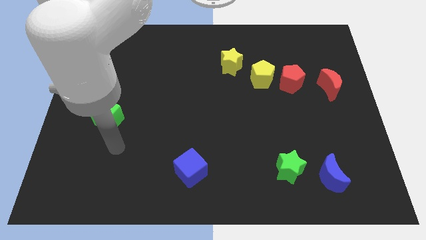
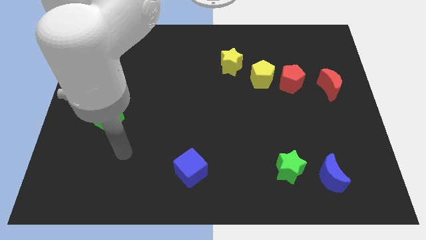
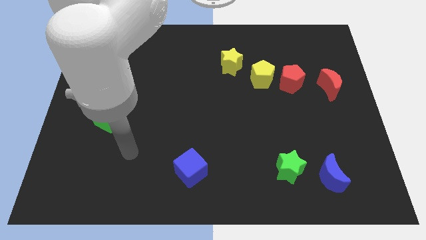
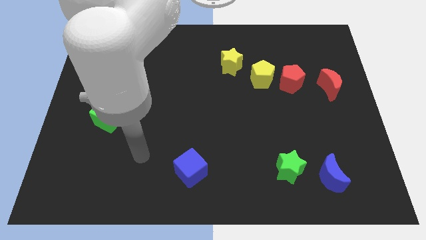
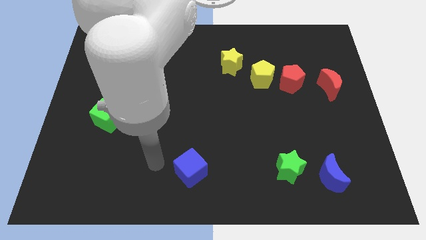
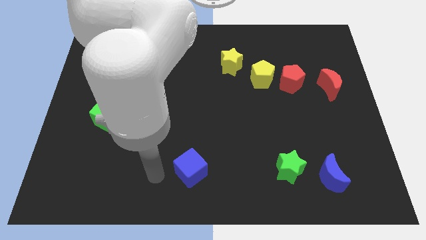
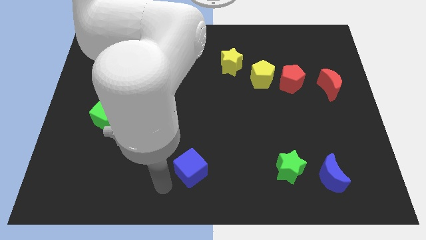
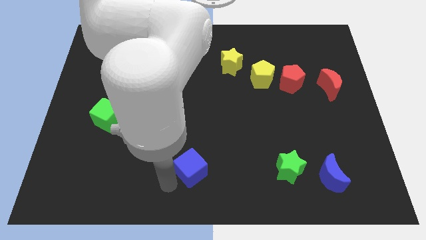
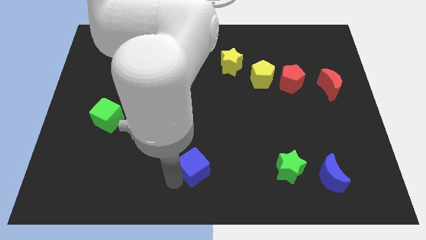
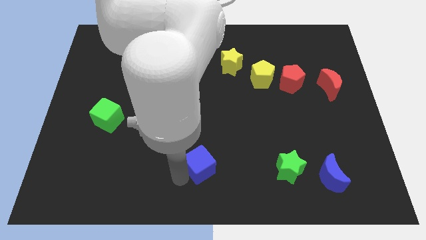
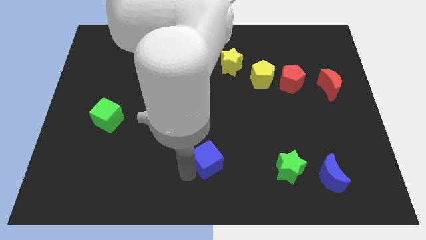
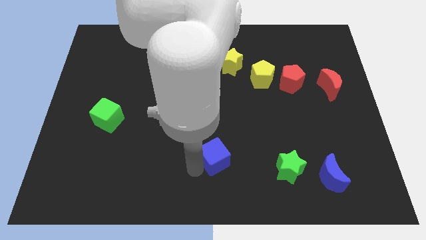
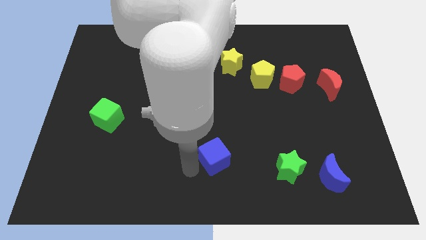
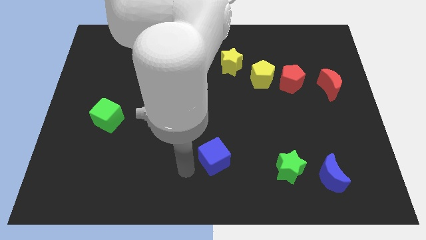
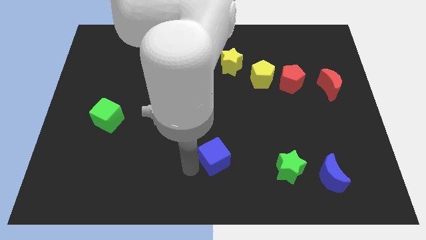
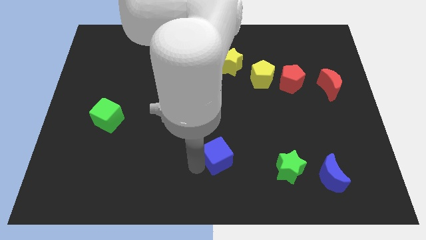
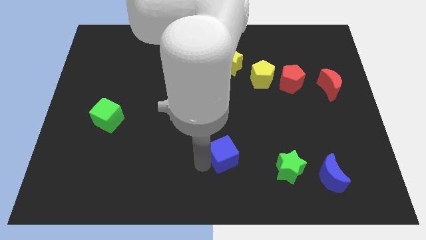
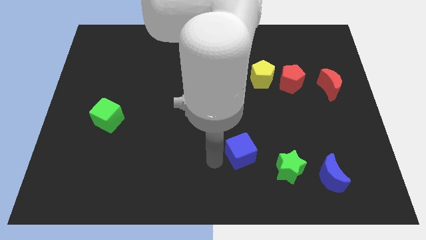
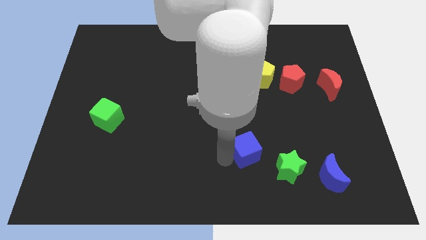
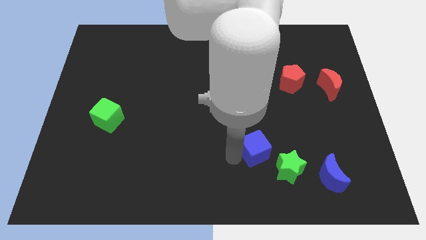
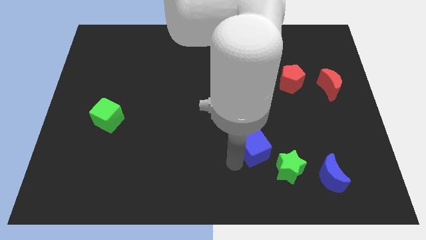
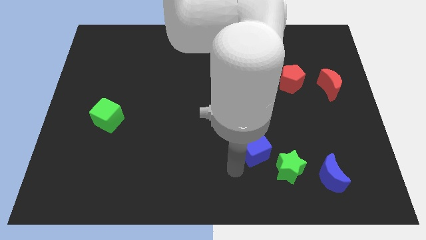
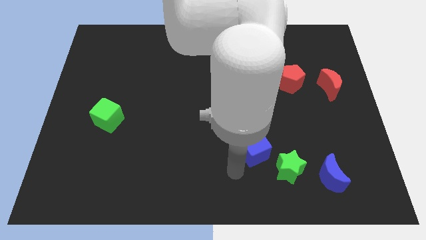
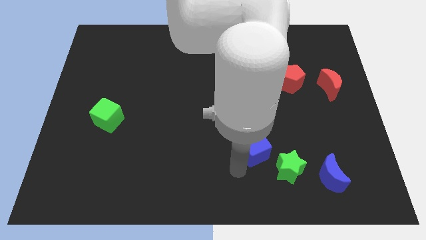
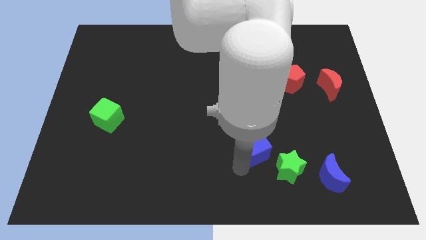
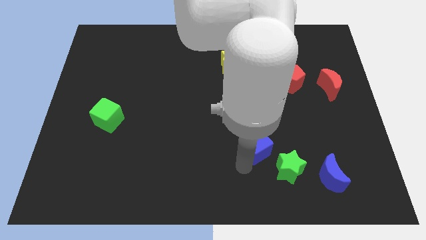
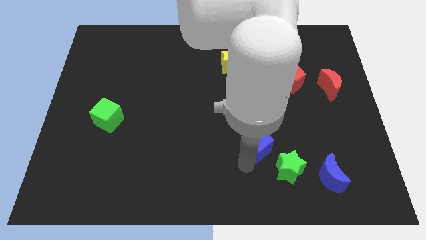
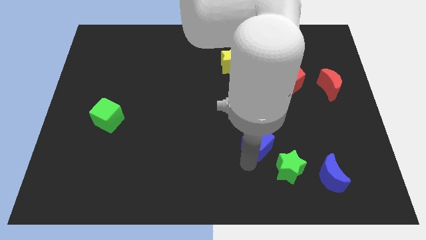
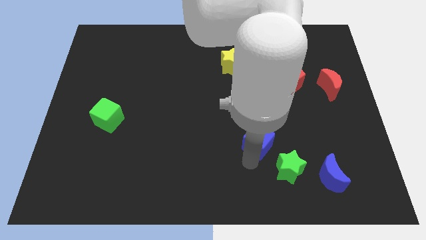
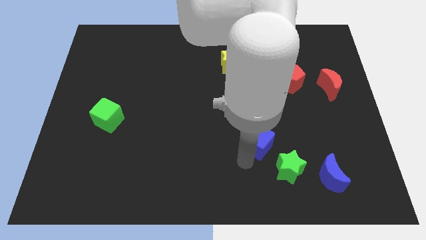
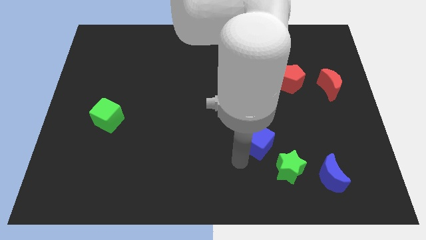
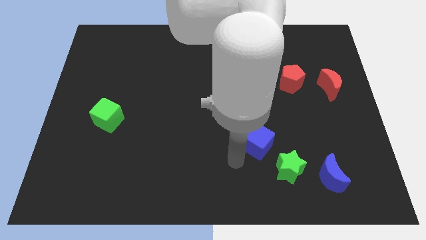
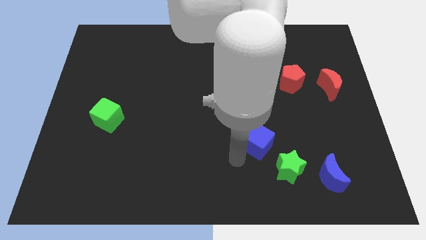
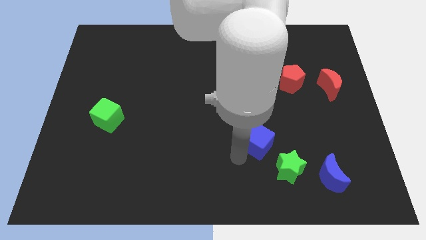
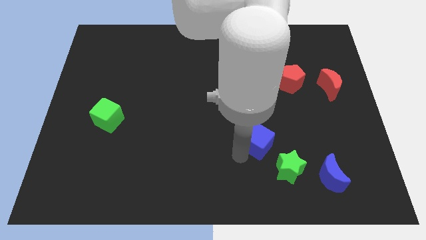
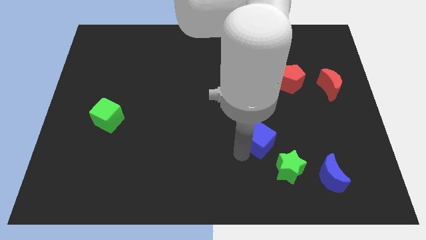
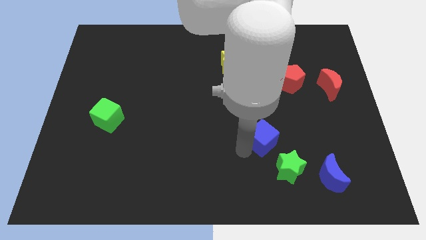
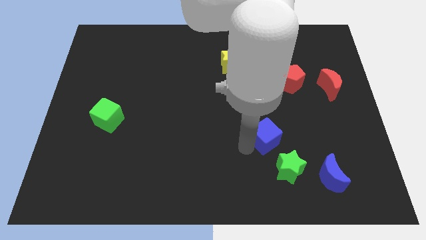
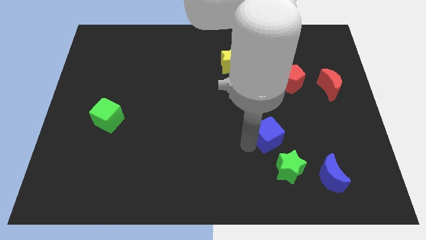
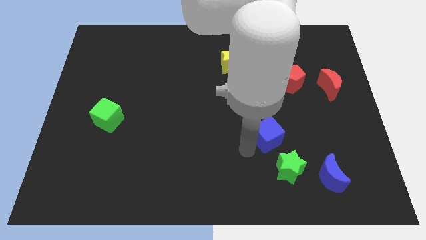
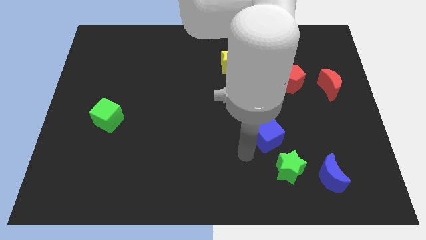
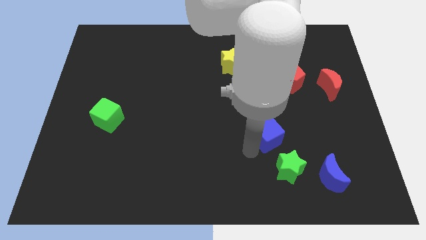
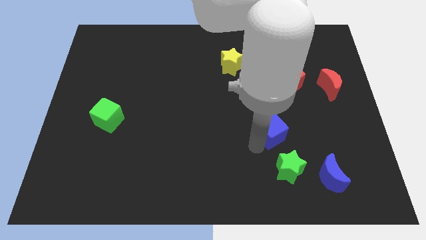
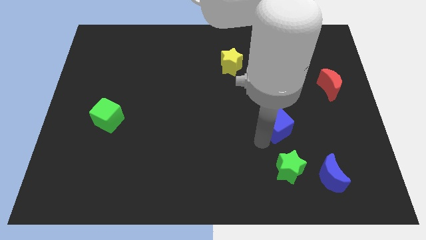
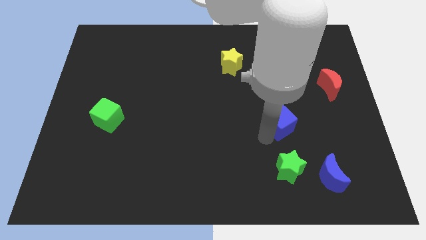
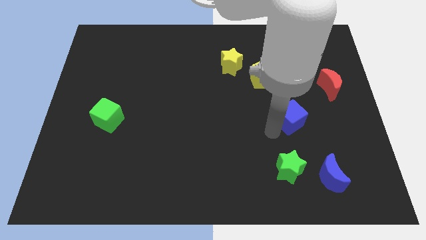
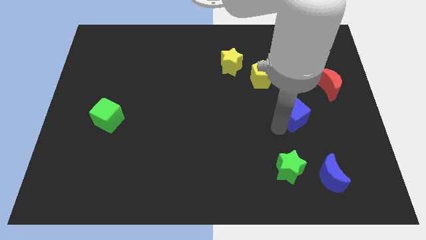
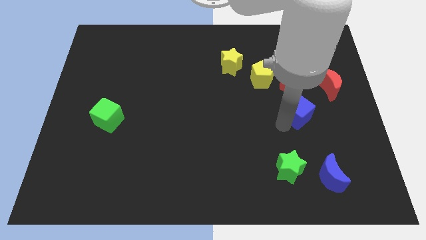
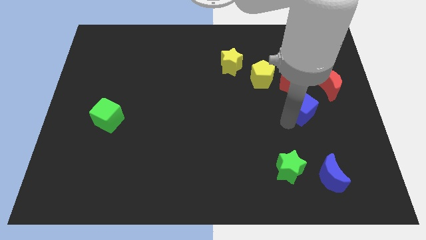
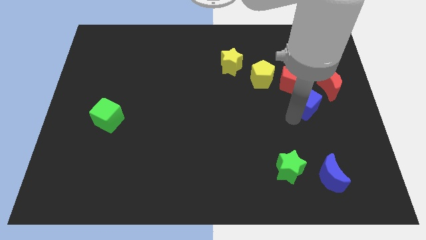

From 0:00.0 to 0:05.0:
push the blue cube to the bottom right side of the red pentagon

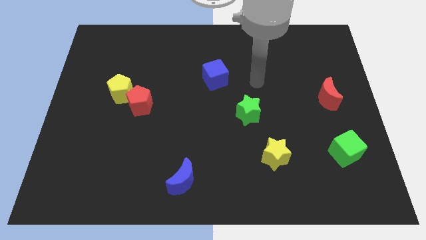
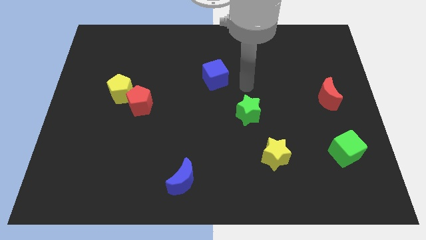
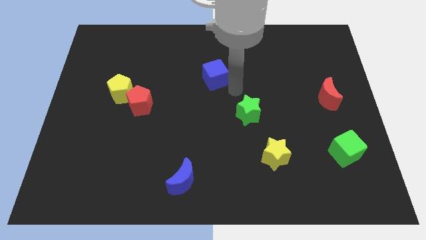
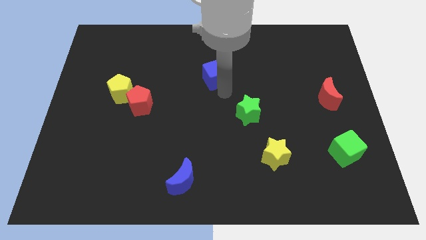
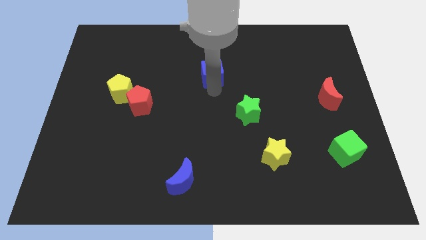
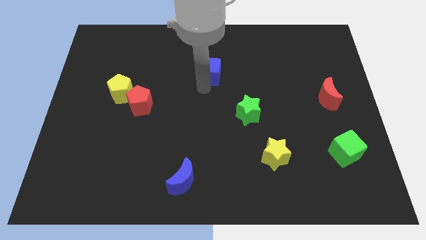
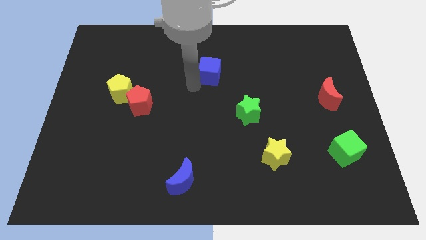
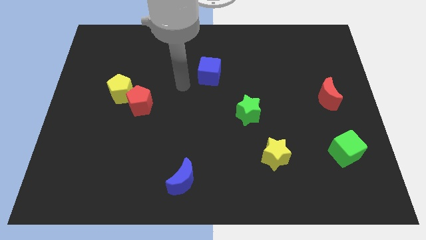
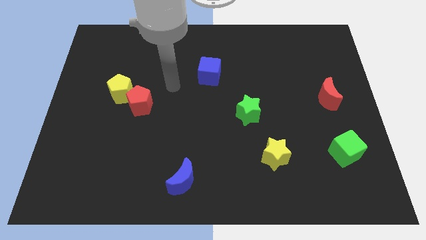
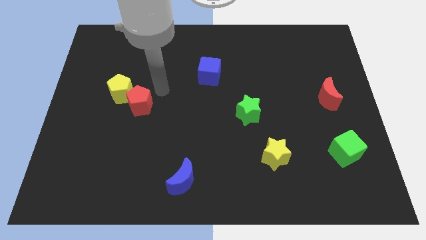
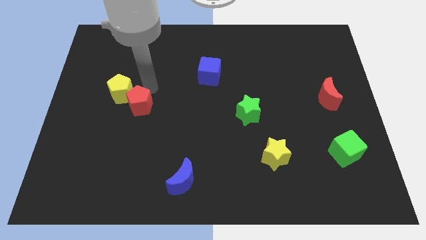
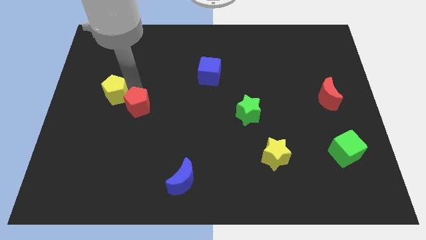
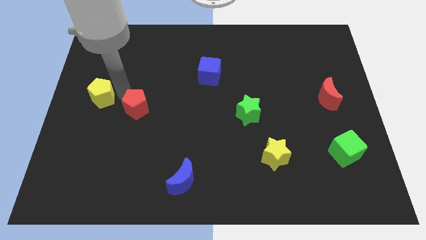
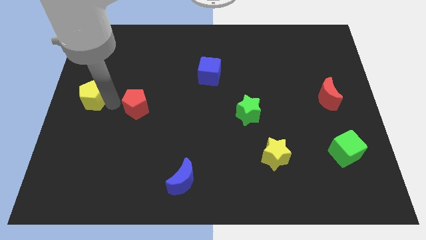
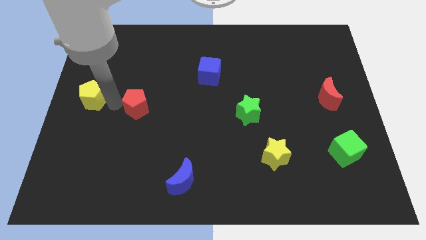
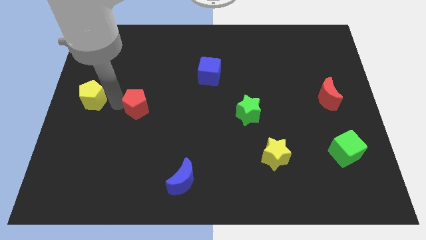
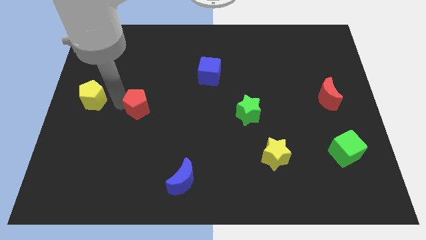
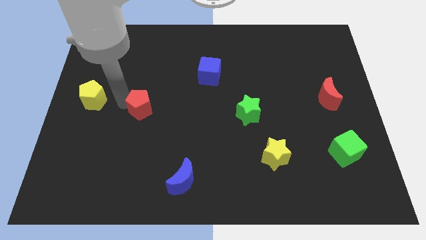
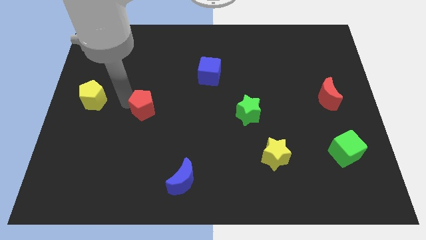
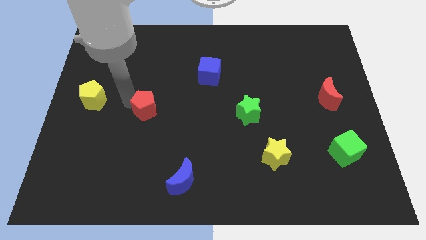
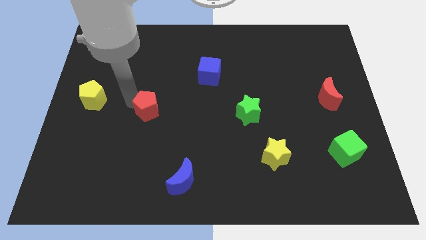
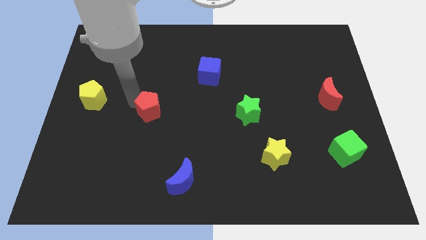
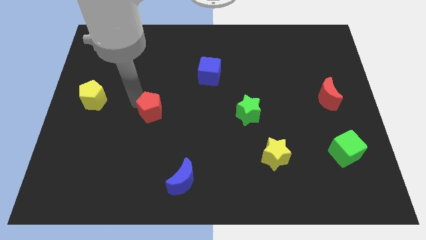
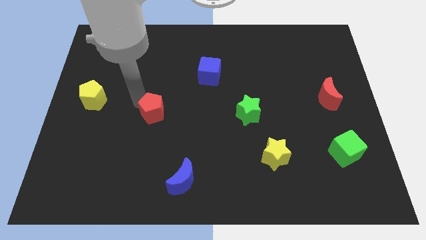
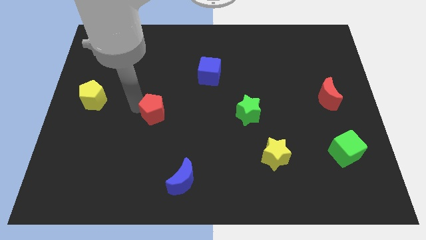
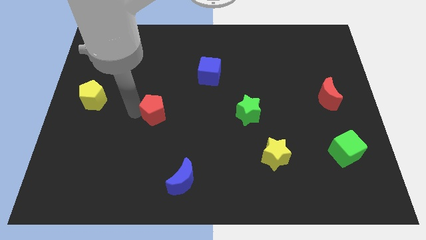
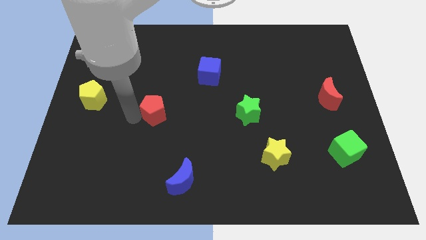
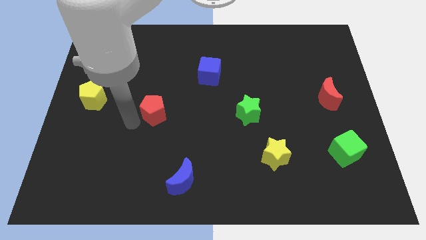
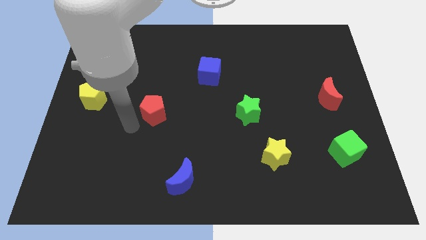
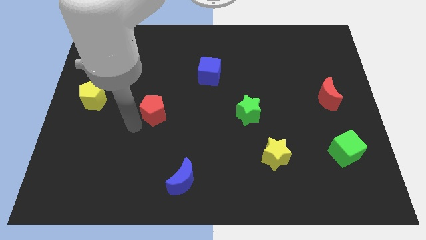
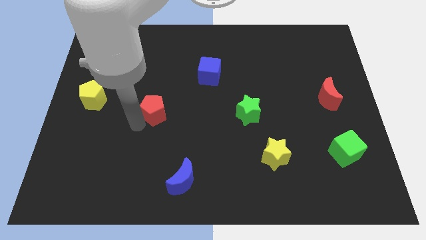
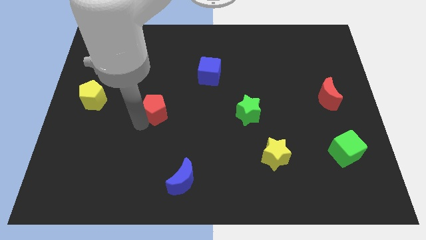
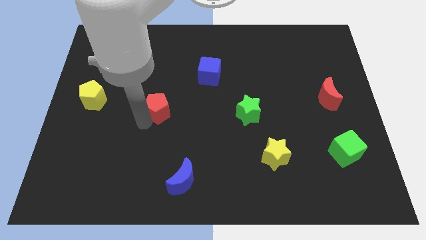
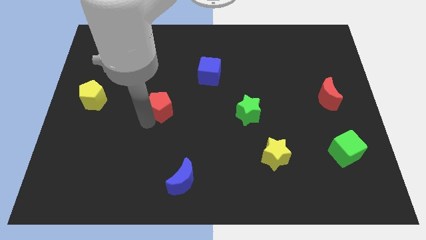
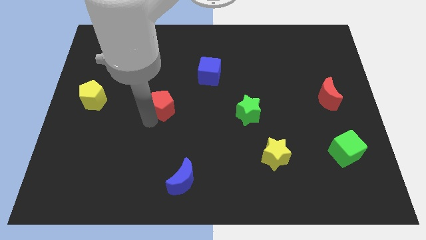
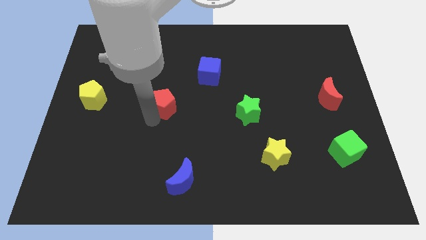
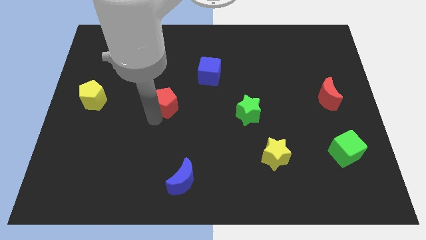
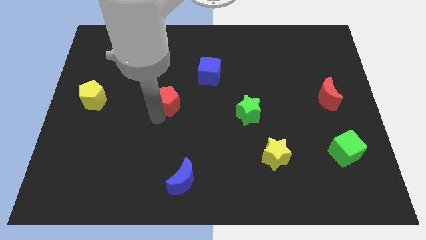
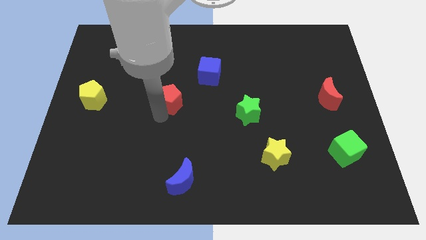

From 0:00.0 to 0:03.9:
slide the red pentagon diagonally down and to the left of the blue cube
